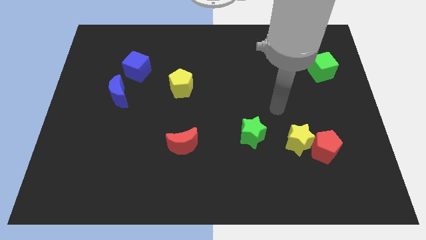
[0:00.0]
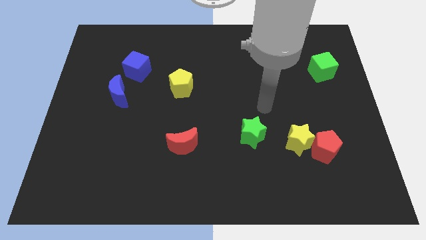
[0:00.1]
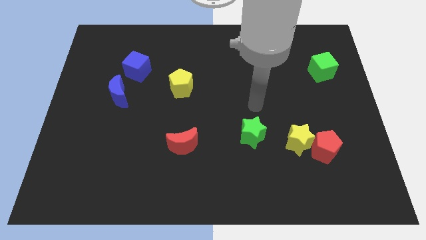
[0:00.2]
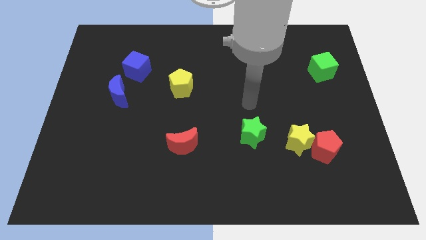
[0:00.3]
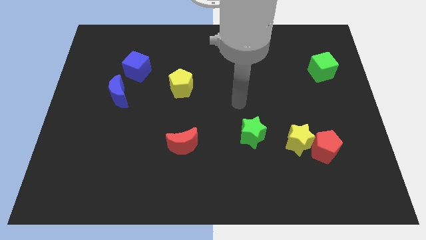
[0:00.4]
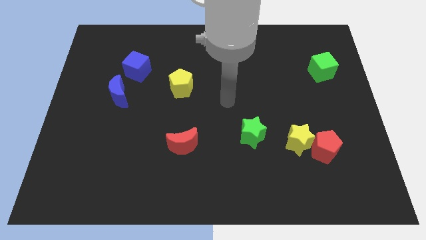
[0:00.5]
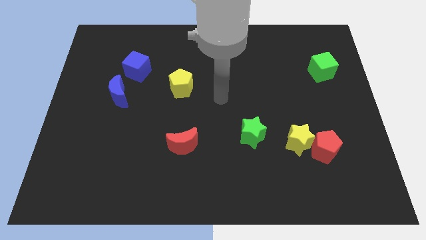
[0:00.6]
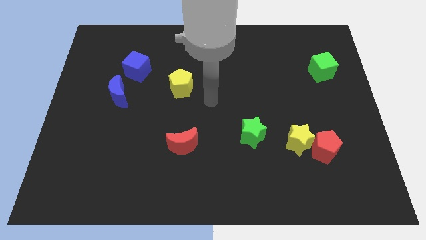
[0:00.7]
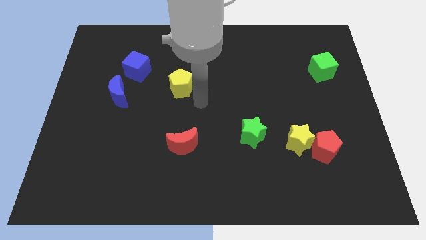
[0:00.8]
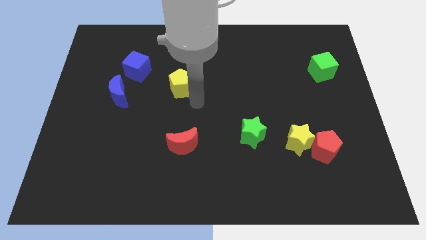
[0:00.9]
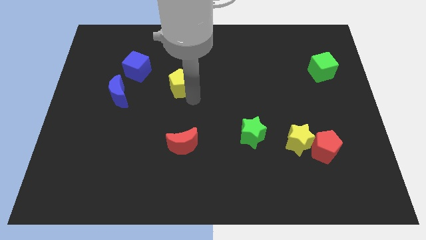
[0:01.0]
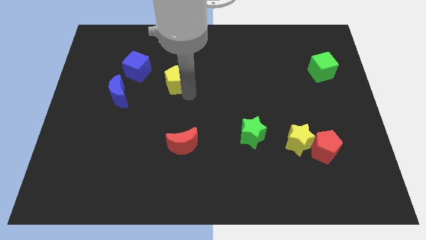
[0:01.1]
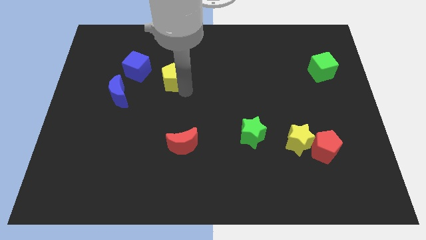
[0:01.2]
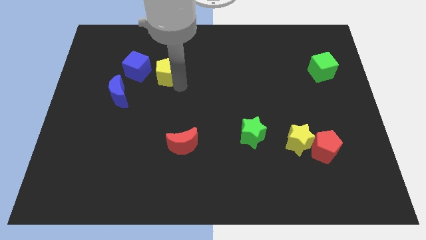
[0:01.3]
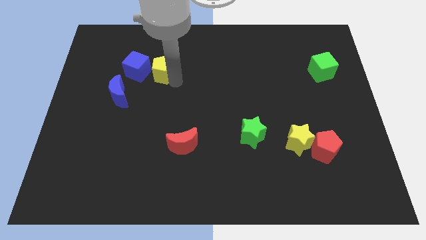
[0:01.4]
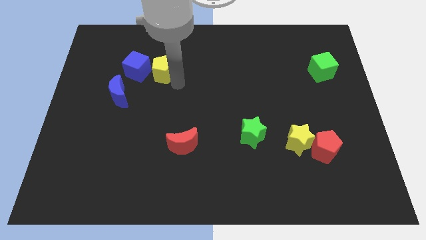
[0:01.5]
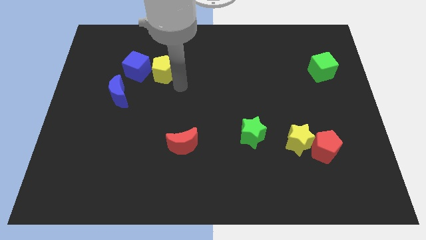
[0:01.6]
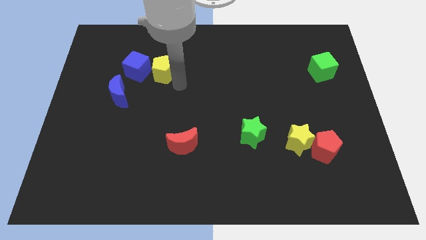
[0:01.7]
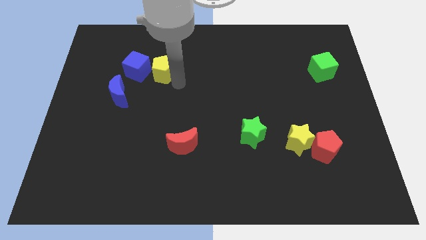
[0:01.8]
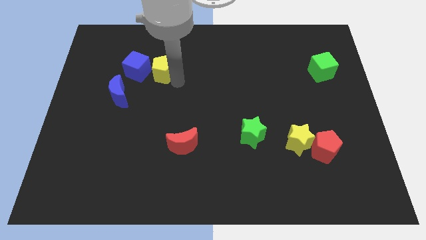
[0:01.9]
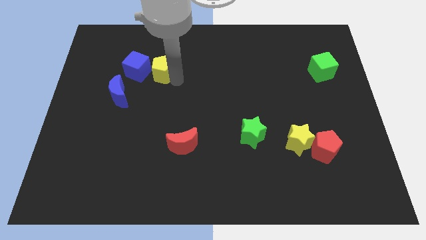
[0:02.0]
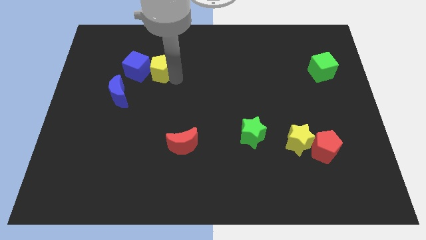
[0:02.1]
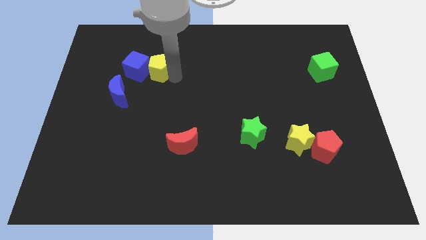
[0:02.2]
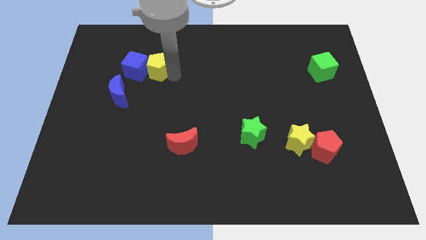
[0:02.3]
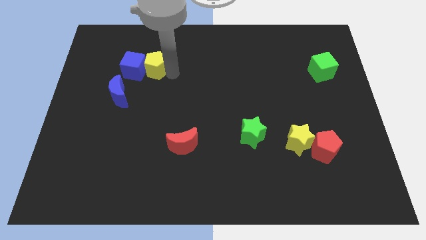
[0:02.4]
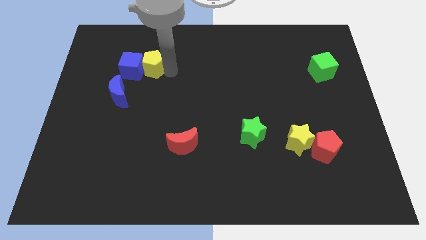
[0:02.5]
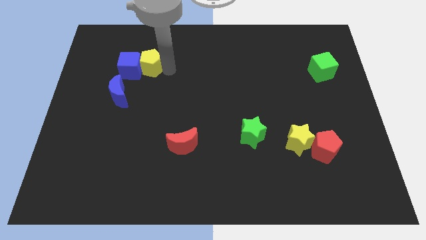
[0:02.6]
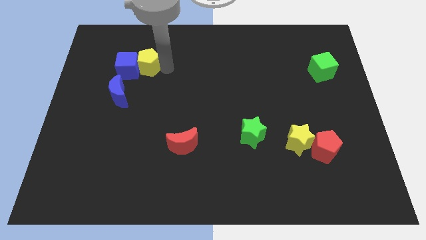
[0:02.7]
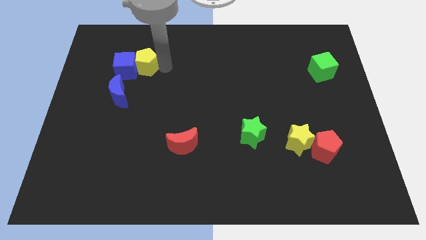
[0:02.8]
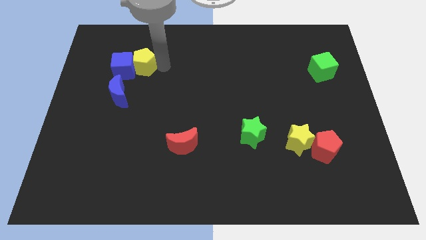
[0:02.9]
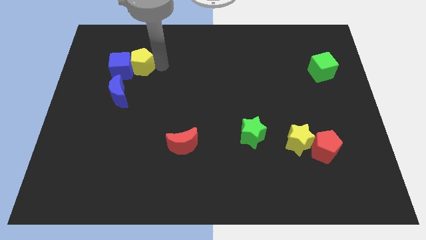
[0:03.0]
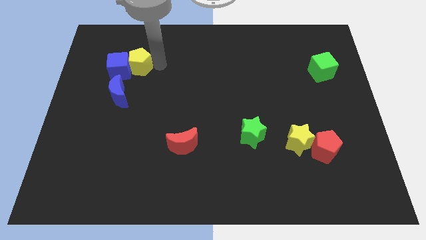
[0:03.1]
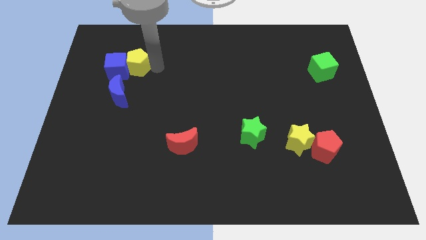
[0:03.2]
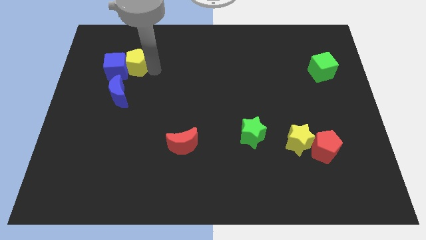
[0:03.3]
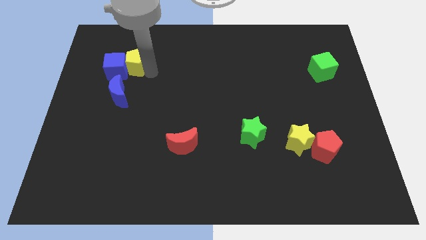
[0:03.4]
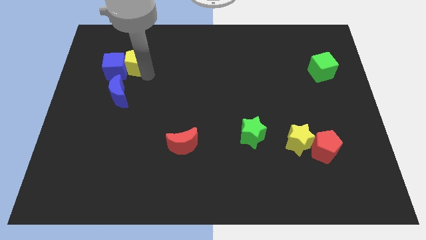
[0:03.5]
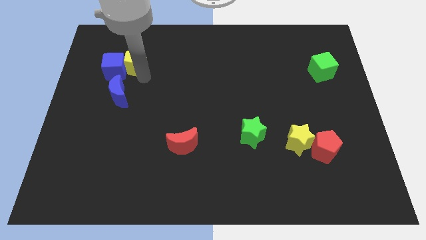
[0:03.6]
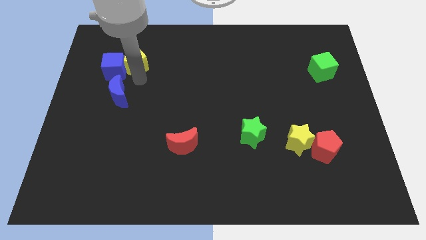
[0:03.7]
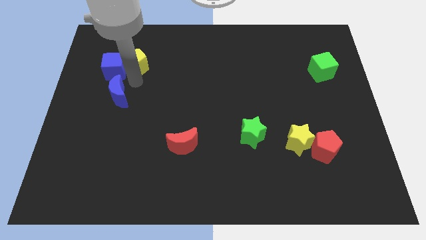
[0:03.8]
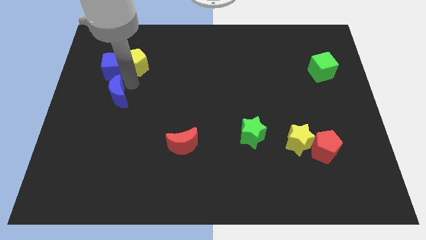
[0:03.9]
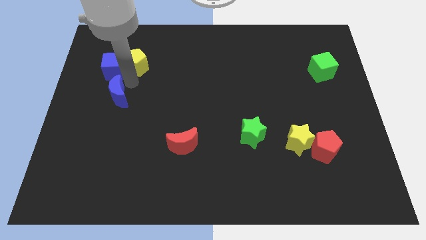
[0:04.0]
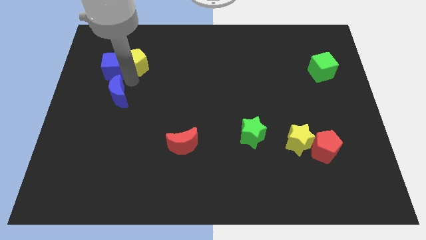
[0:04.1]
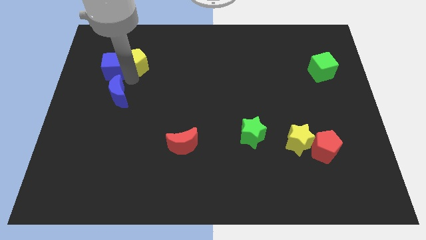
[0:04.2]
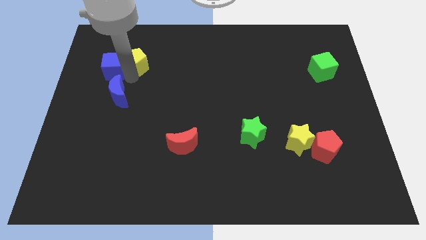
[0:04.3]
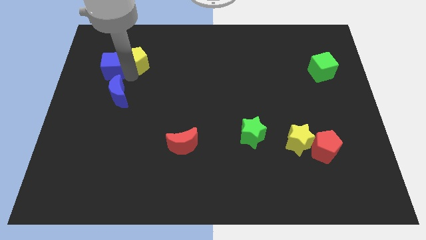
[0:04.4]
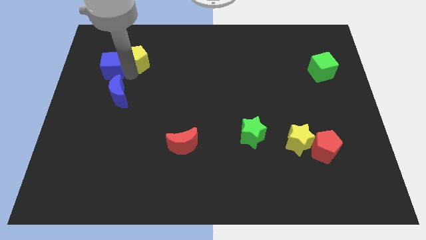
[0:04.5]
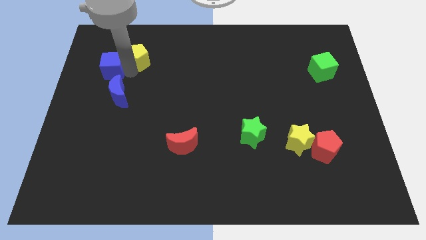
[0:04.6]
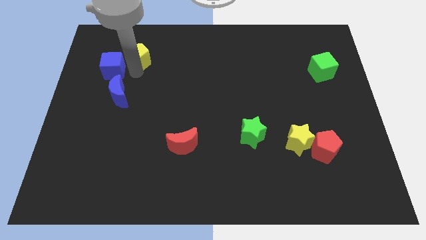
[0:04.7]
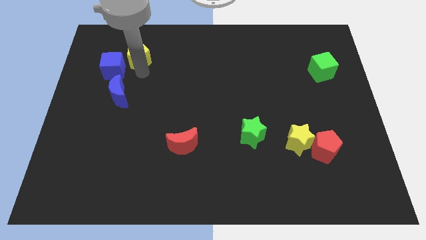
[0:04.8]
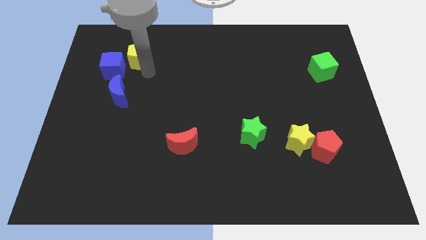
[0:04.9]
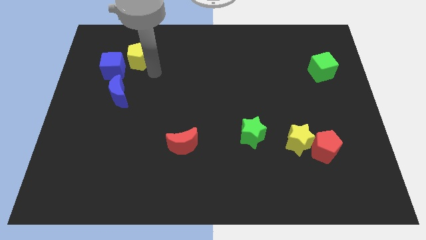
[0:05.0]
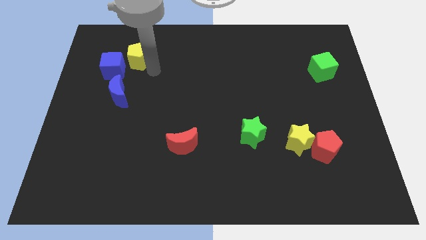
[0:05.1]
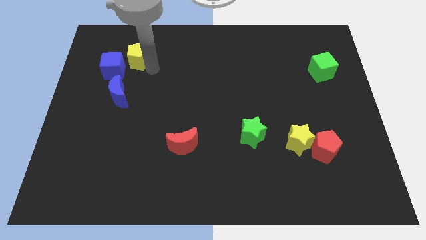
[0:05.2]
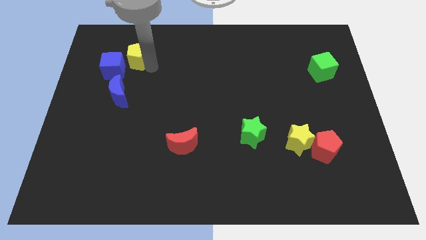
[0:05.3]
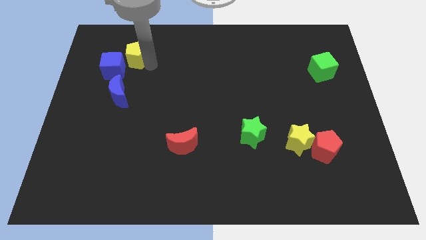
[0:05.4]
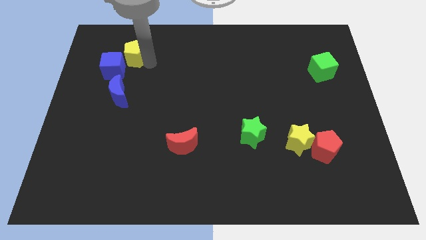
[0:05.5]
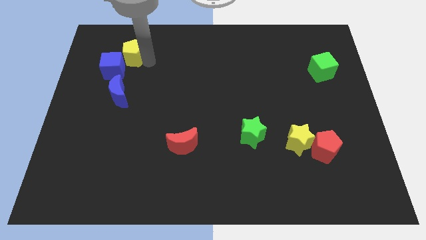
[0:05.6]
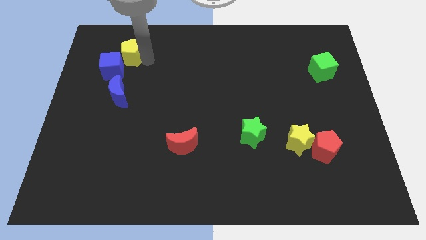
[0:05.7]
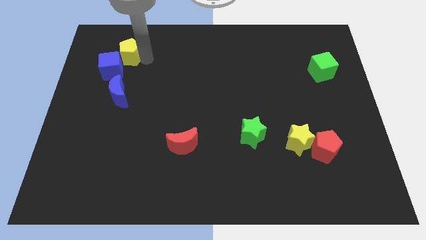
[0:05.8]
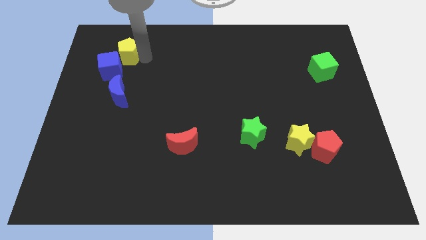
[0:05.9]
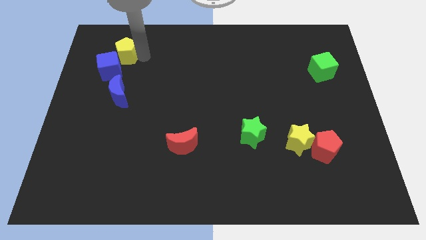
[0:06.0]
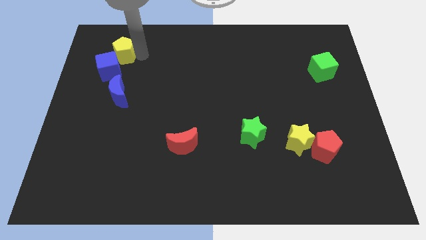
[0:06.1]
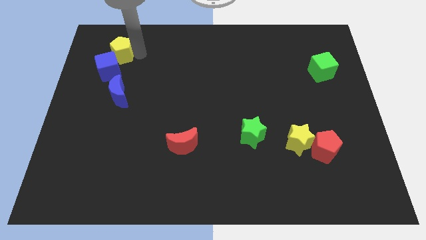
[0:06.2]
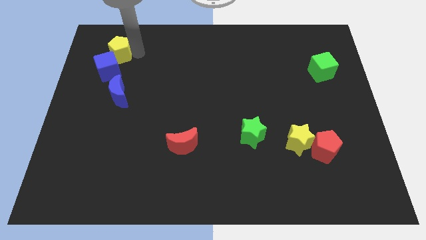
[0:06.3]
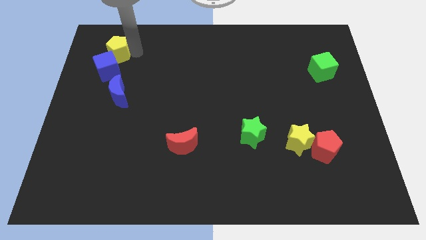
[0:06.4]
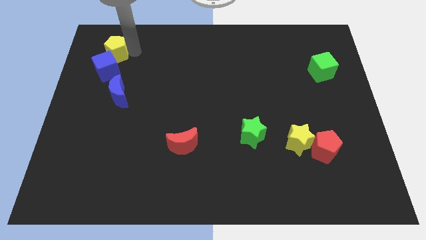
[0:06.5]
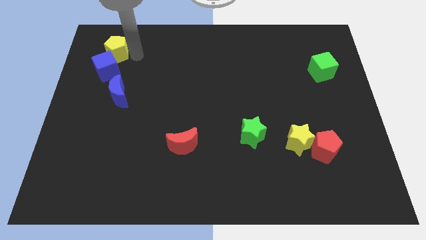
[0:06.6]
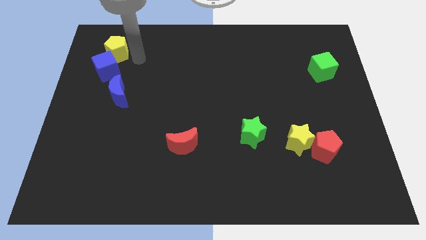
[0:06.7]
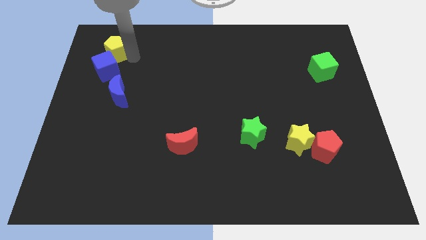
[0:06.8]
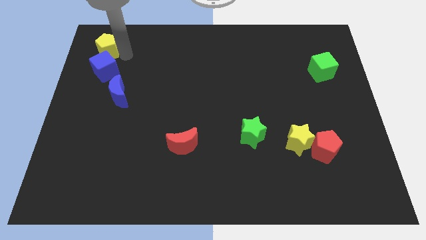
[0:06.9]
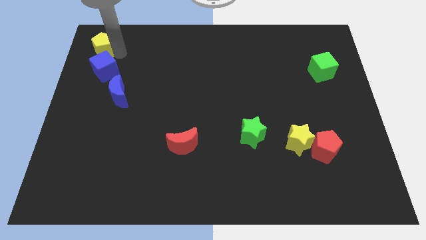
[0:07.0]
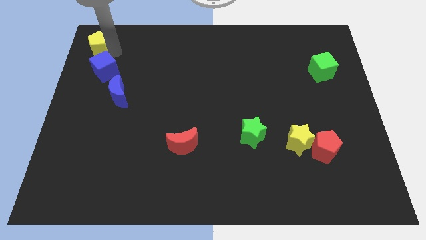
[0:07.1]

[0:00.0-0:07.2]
push the yellow pentagon to the top left of the board

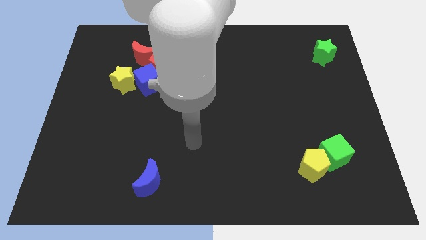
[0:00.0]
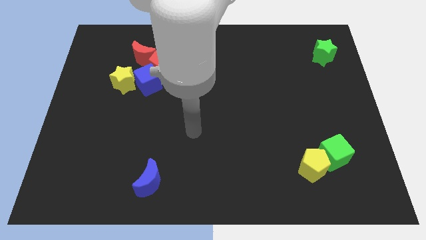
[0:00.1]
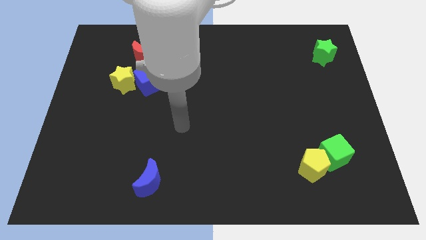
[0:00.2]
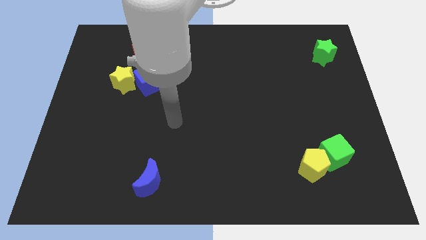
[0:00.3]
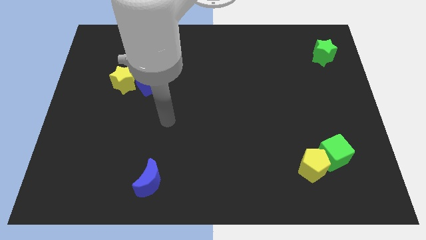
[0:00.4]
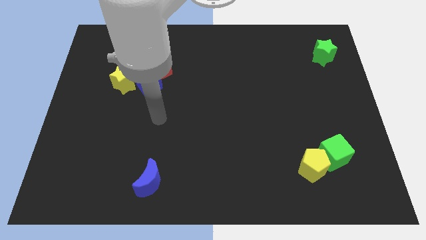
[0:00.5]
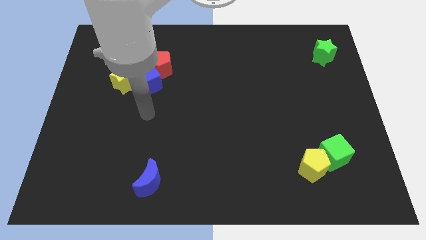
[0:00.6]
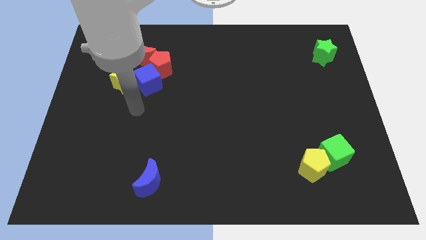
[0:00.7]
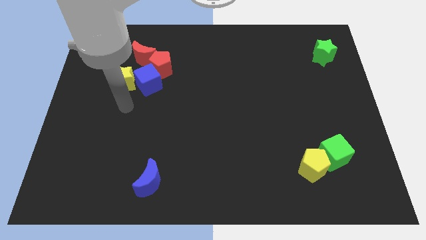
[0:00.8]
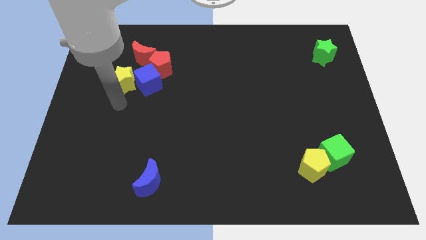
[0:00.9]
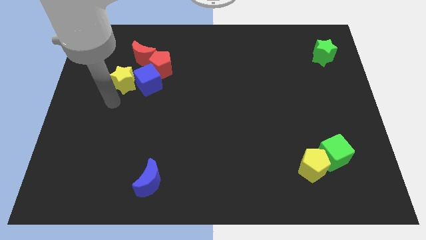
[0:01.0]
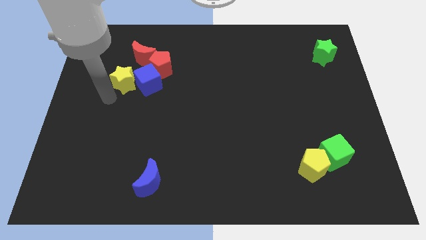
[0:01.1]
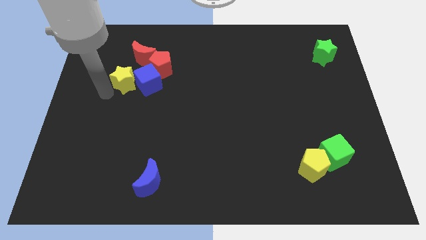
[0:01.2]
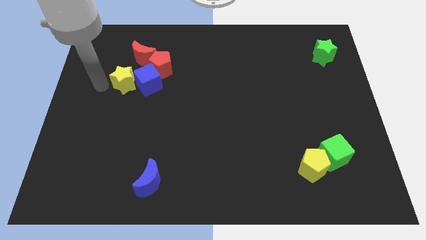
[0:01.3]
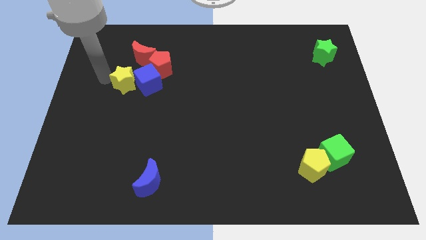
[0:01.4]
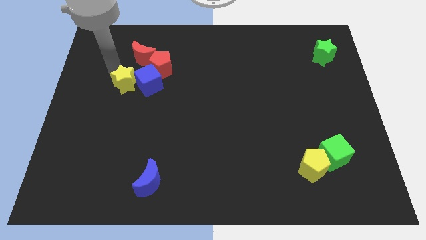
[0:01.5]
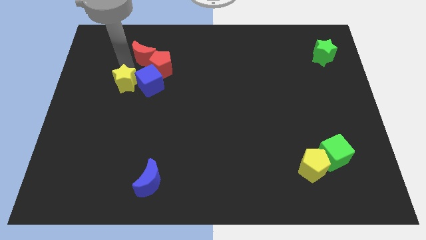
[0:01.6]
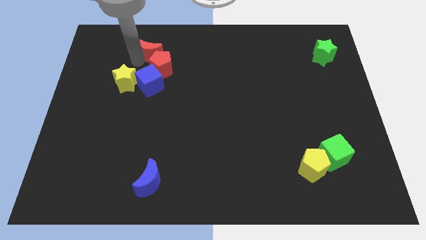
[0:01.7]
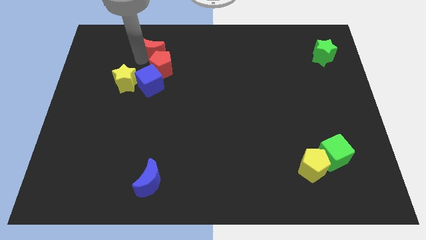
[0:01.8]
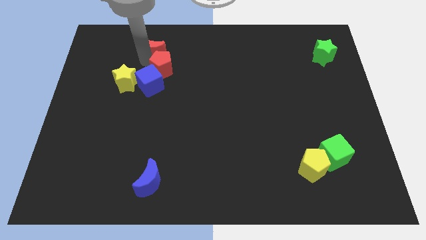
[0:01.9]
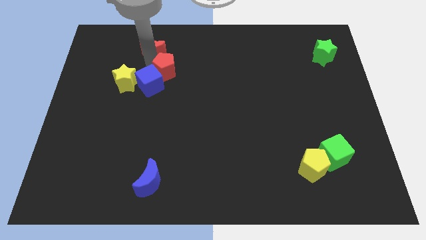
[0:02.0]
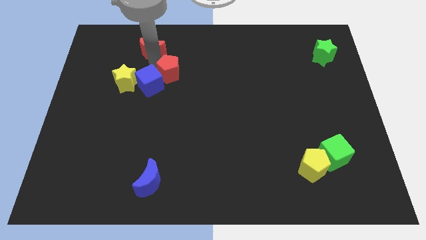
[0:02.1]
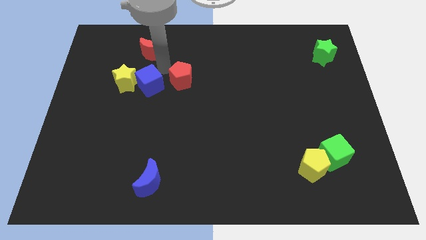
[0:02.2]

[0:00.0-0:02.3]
move the red pentagon to the middle
